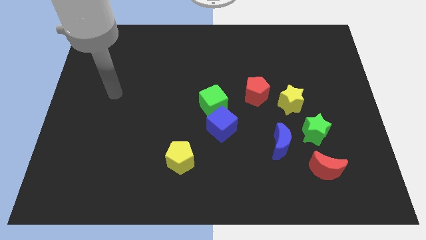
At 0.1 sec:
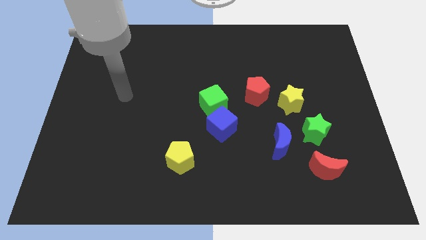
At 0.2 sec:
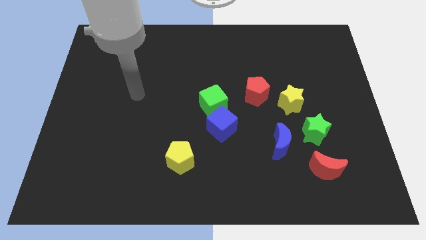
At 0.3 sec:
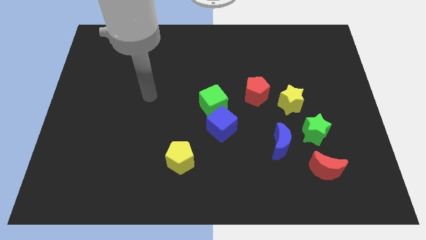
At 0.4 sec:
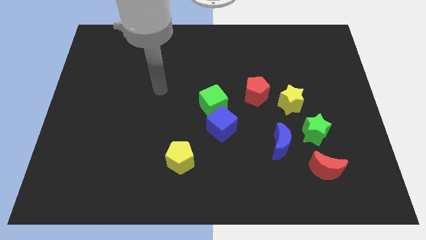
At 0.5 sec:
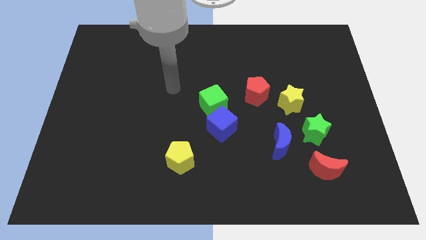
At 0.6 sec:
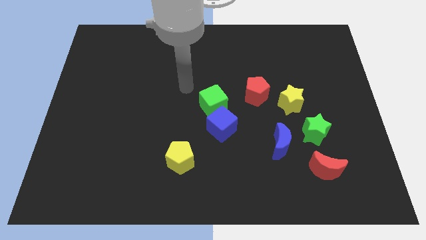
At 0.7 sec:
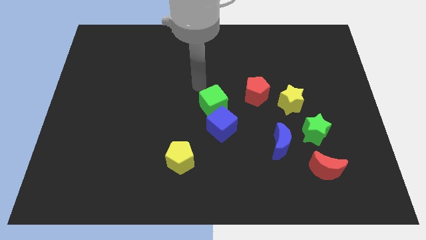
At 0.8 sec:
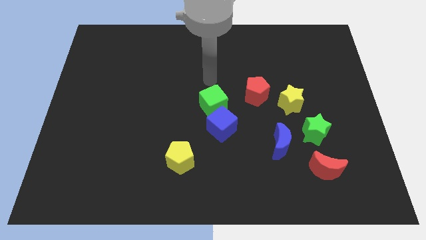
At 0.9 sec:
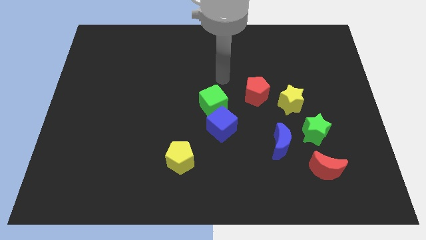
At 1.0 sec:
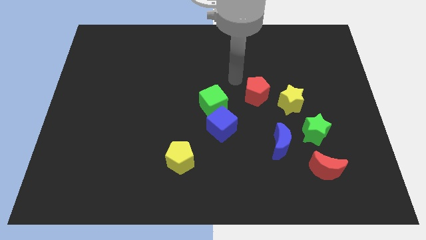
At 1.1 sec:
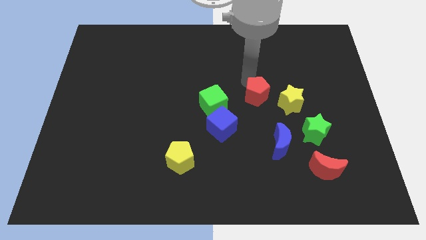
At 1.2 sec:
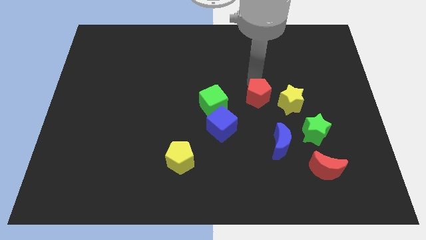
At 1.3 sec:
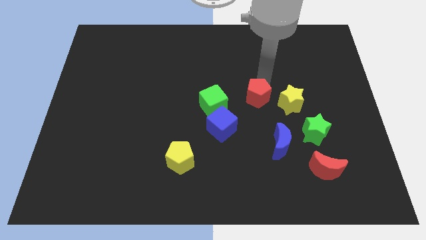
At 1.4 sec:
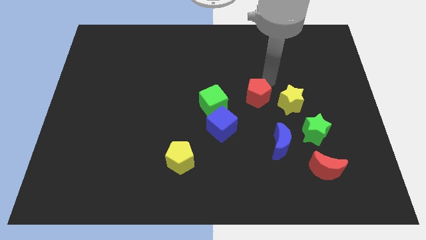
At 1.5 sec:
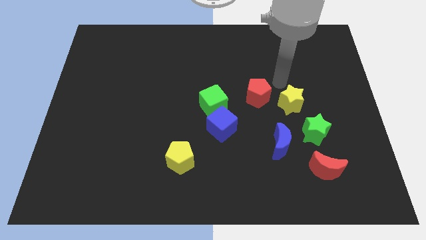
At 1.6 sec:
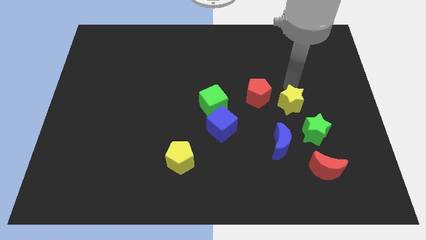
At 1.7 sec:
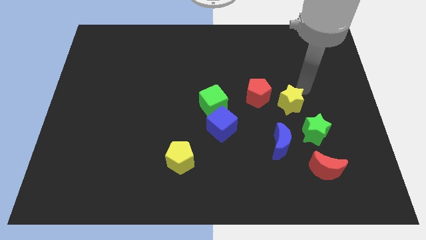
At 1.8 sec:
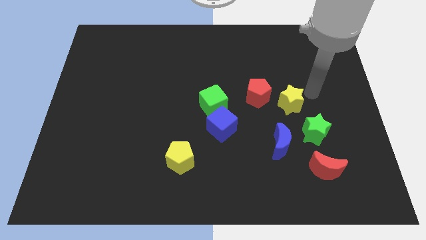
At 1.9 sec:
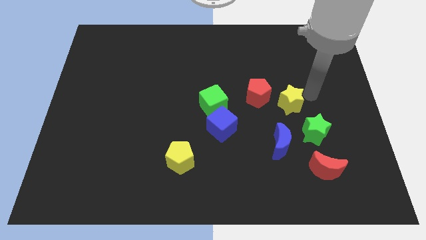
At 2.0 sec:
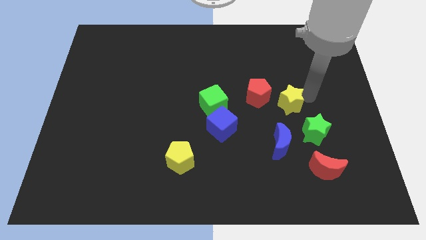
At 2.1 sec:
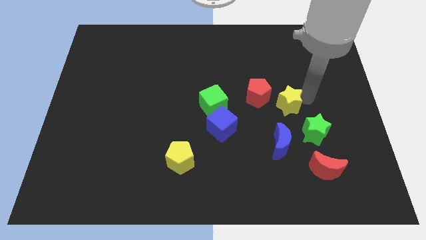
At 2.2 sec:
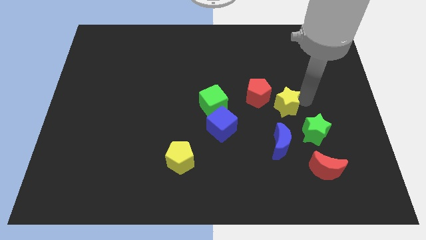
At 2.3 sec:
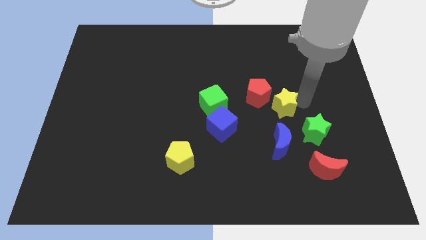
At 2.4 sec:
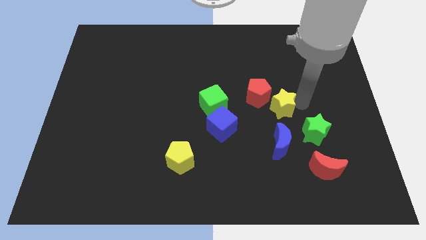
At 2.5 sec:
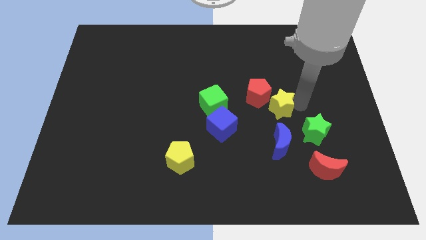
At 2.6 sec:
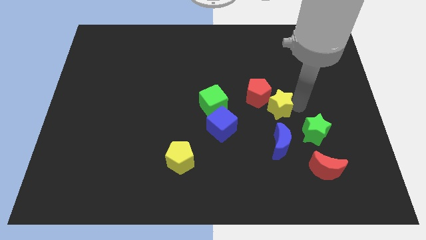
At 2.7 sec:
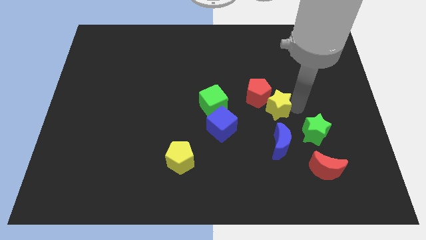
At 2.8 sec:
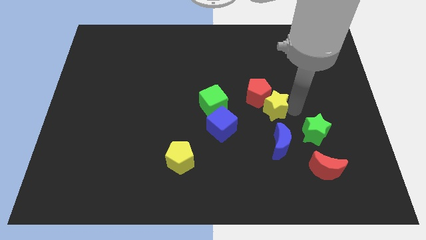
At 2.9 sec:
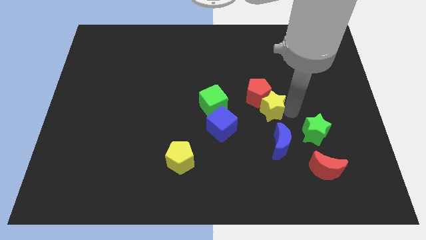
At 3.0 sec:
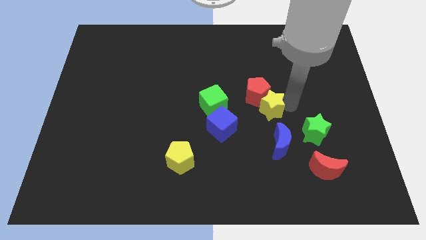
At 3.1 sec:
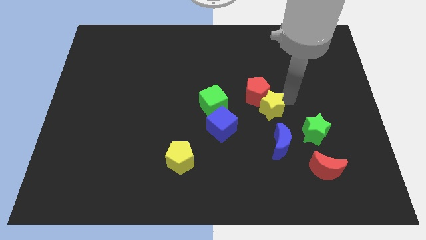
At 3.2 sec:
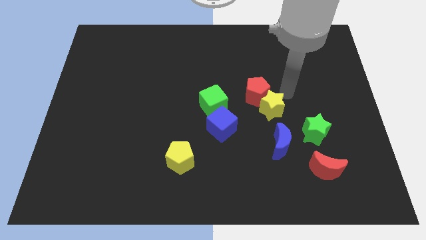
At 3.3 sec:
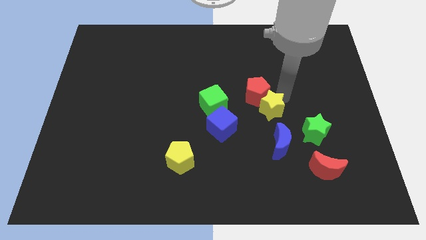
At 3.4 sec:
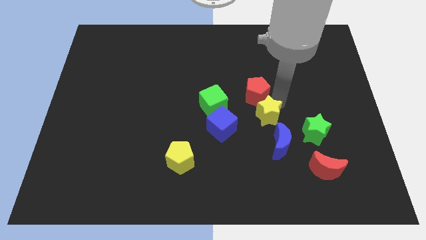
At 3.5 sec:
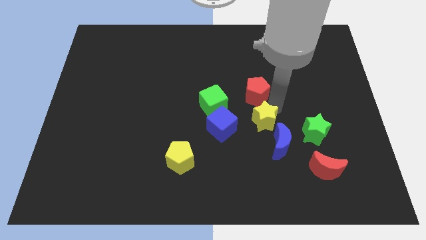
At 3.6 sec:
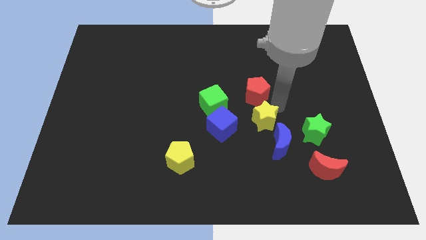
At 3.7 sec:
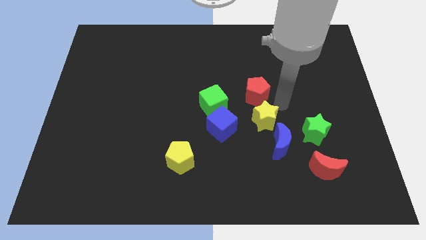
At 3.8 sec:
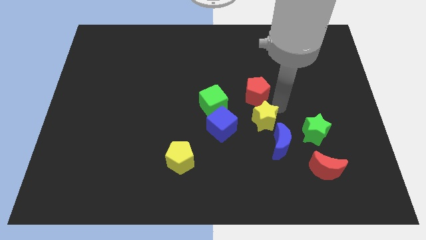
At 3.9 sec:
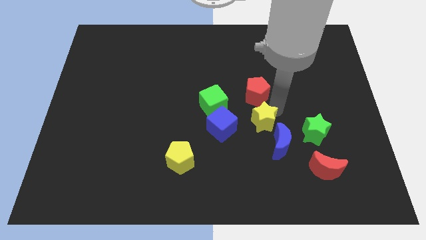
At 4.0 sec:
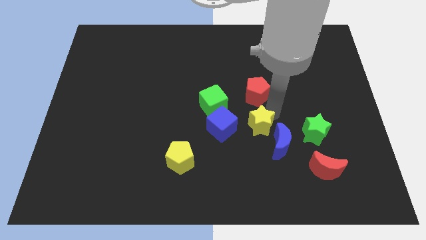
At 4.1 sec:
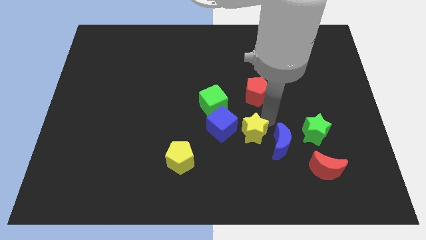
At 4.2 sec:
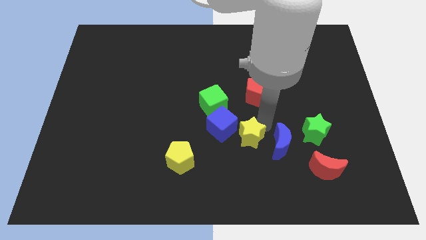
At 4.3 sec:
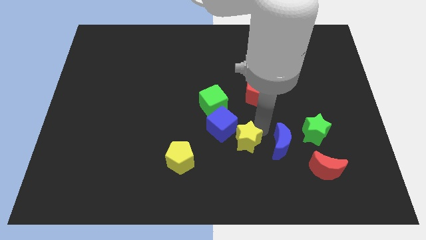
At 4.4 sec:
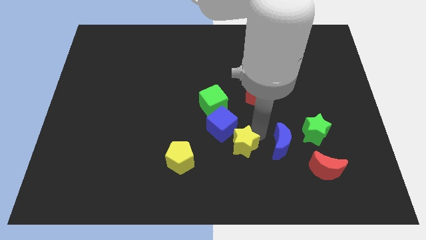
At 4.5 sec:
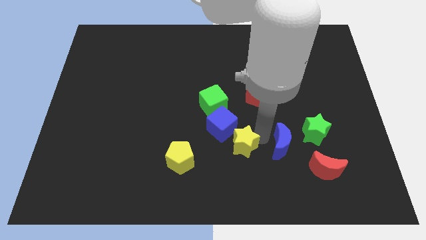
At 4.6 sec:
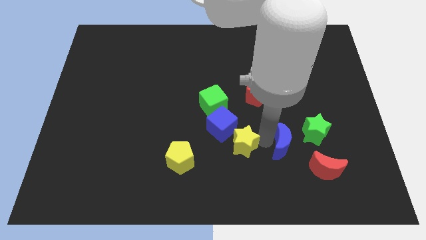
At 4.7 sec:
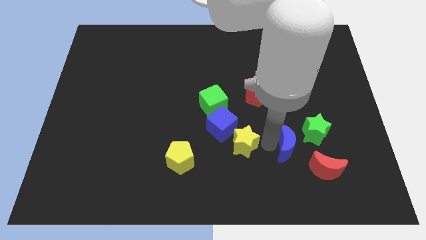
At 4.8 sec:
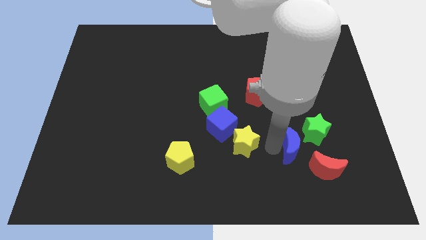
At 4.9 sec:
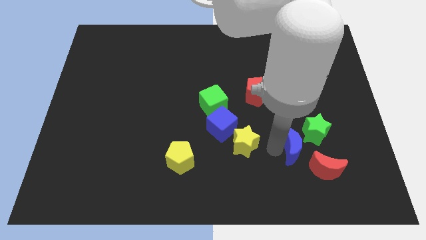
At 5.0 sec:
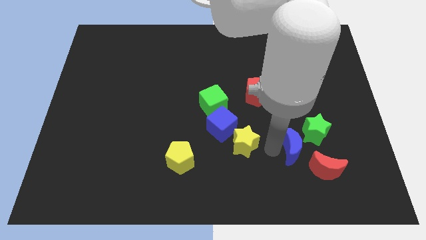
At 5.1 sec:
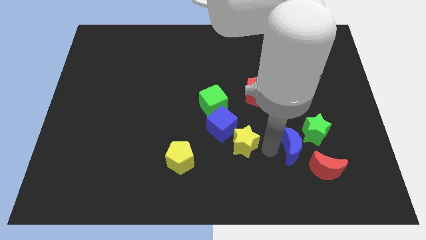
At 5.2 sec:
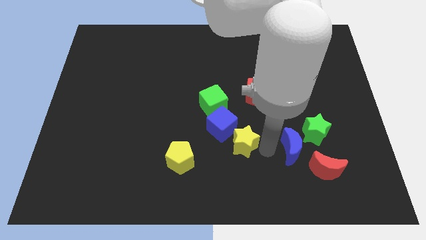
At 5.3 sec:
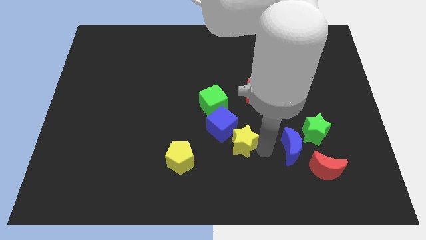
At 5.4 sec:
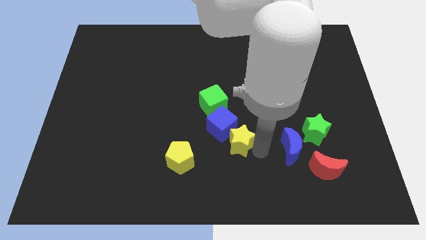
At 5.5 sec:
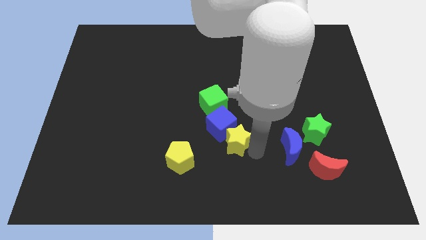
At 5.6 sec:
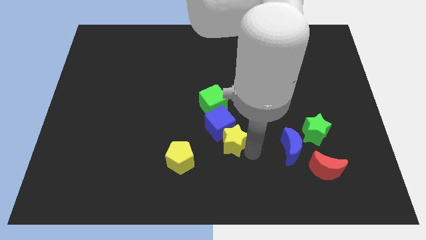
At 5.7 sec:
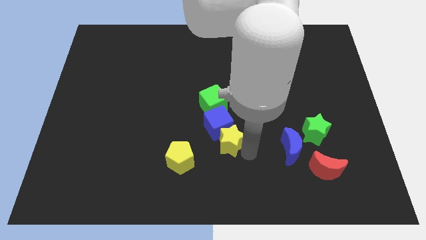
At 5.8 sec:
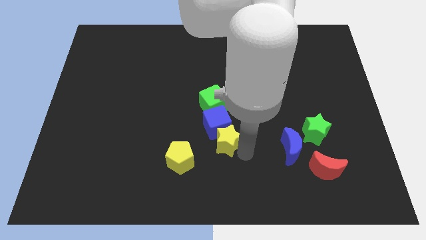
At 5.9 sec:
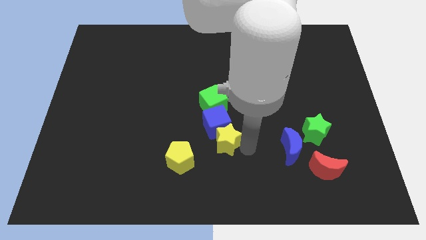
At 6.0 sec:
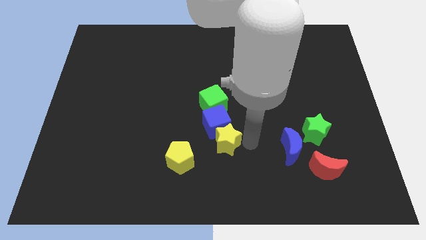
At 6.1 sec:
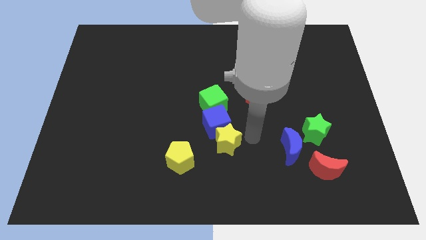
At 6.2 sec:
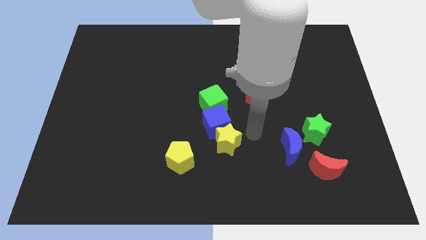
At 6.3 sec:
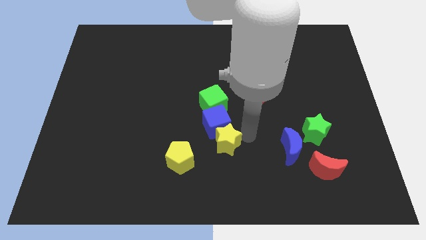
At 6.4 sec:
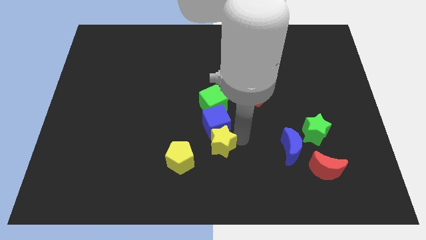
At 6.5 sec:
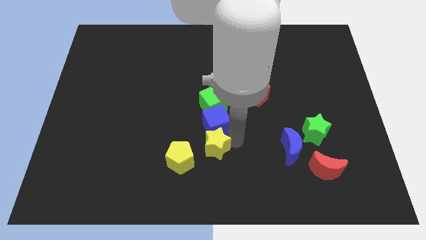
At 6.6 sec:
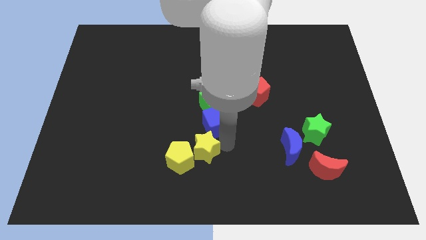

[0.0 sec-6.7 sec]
slide the yellow star towards the yellow pentagon

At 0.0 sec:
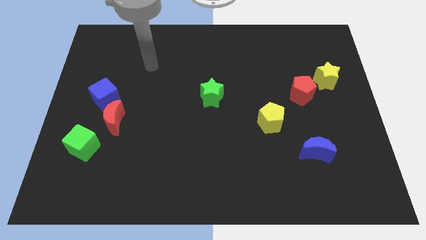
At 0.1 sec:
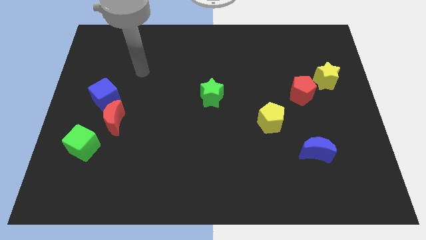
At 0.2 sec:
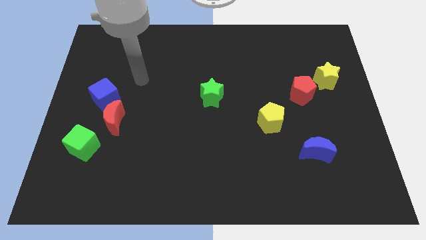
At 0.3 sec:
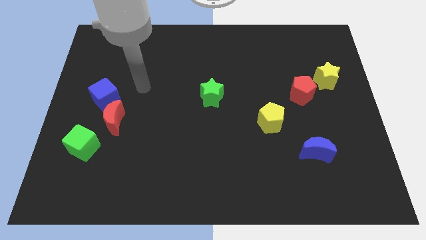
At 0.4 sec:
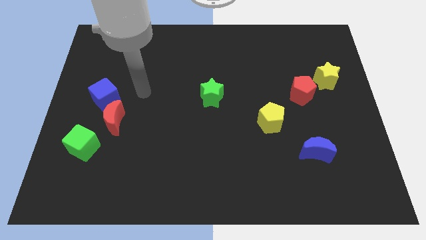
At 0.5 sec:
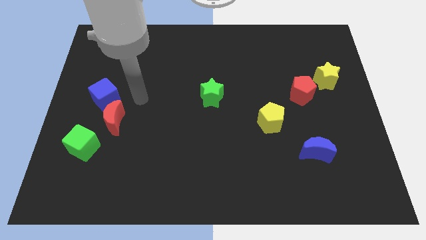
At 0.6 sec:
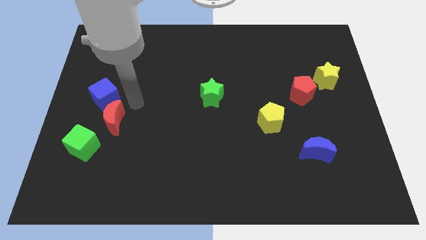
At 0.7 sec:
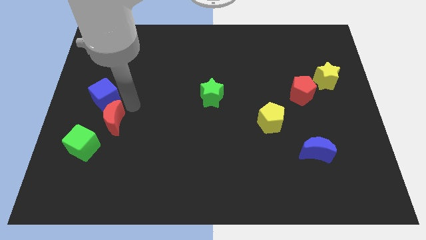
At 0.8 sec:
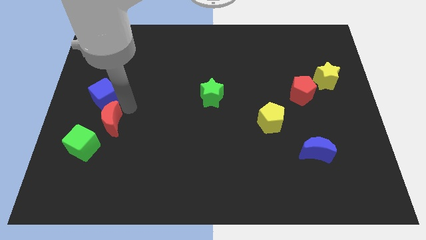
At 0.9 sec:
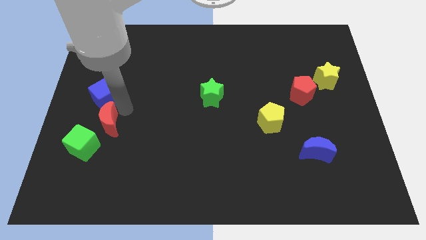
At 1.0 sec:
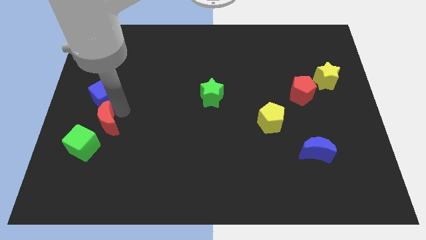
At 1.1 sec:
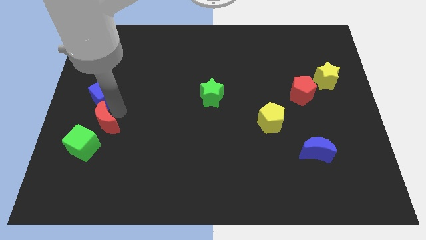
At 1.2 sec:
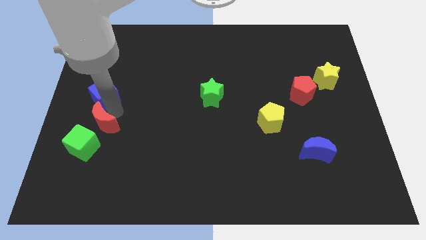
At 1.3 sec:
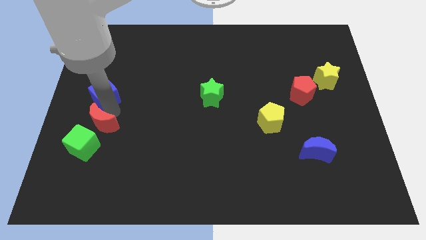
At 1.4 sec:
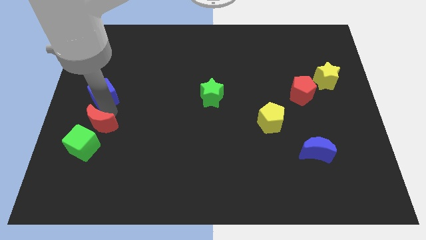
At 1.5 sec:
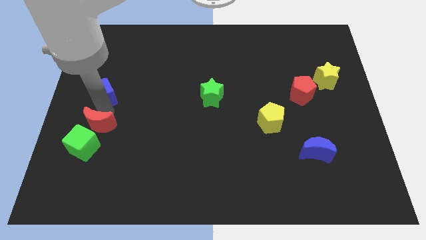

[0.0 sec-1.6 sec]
move the red moon towards the green cube
